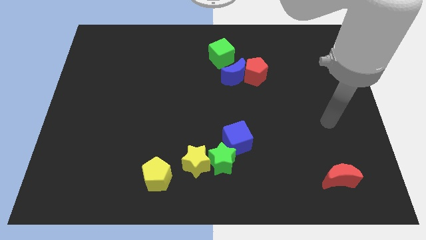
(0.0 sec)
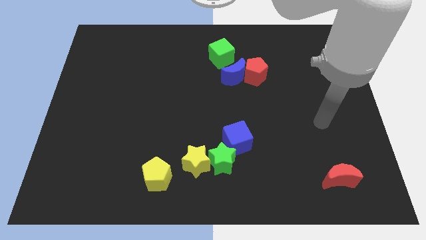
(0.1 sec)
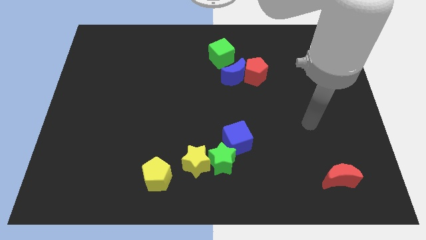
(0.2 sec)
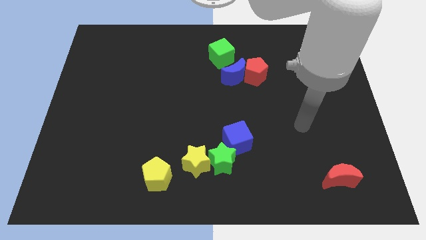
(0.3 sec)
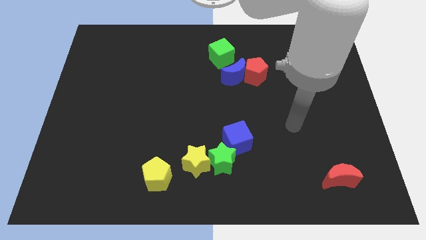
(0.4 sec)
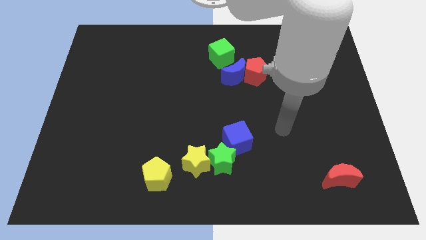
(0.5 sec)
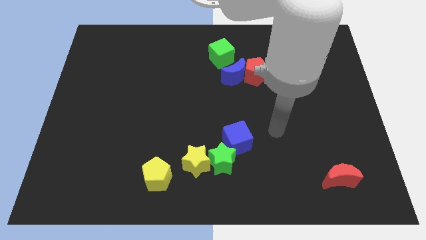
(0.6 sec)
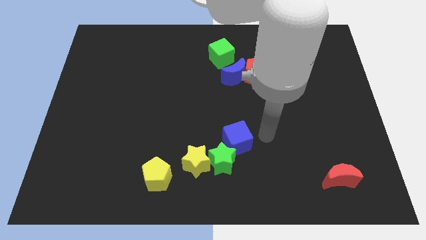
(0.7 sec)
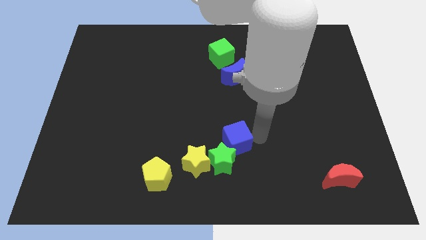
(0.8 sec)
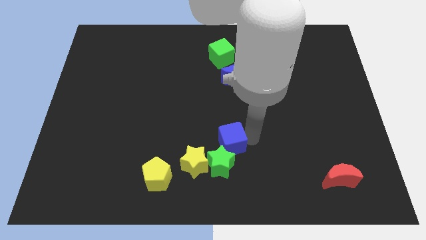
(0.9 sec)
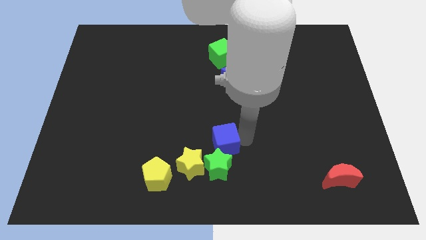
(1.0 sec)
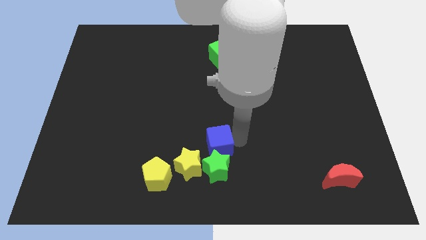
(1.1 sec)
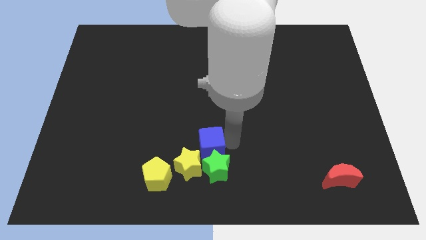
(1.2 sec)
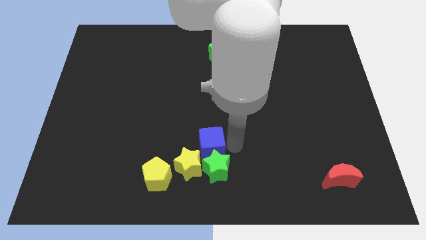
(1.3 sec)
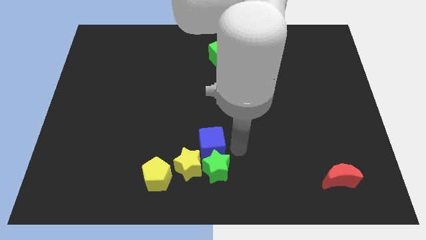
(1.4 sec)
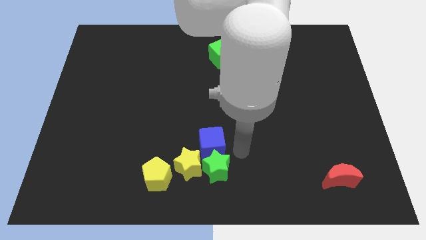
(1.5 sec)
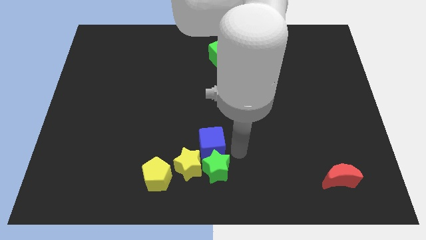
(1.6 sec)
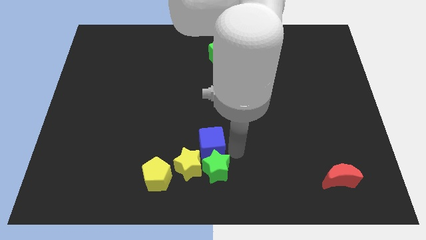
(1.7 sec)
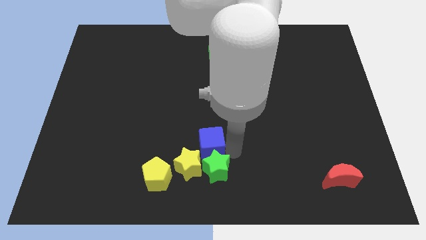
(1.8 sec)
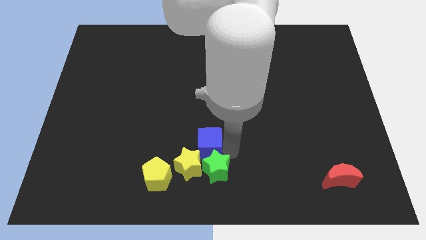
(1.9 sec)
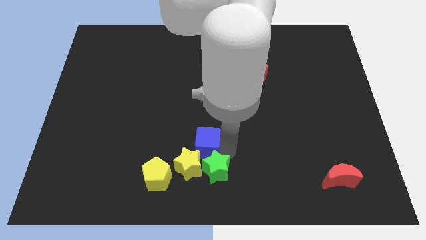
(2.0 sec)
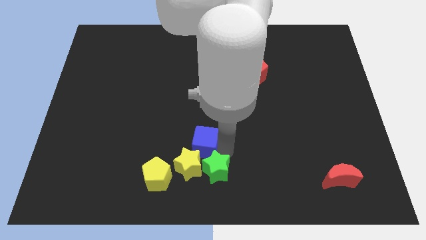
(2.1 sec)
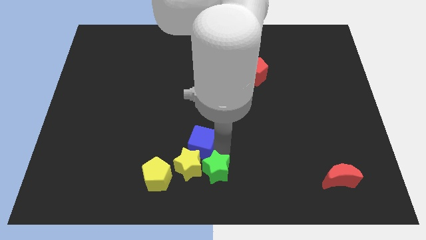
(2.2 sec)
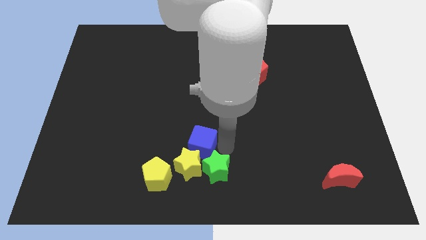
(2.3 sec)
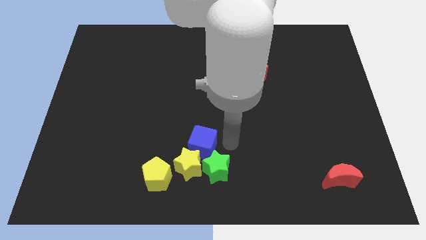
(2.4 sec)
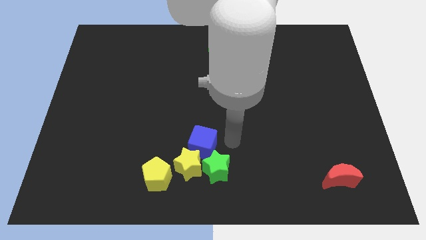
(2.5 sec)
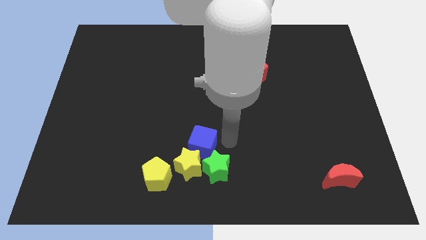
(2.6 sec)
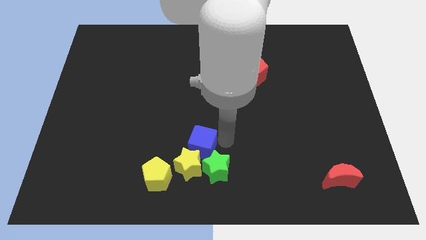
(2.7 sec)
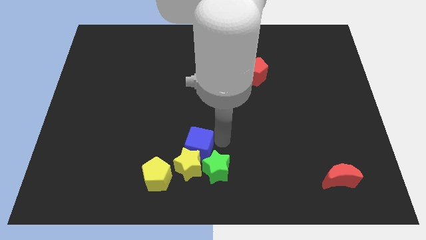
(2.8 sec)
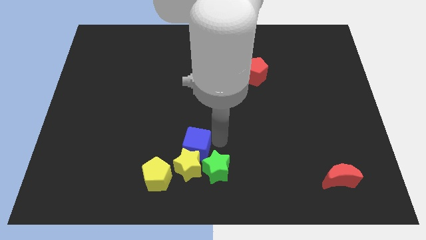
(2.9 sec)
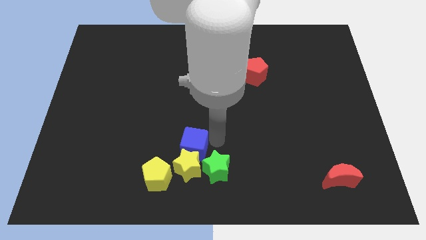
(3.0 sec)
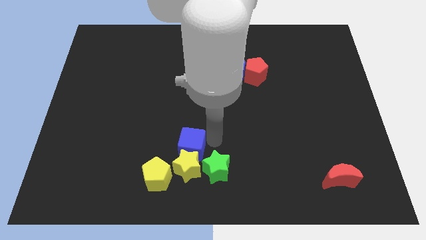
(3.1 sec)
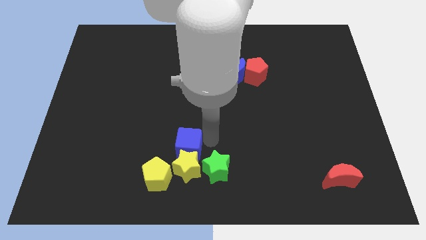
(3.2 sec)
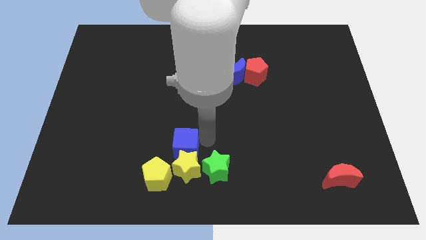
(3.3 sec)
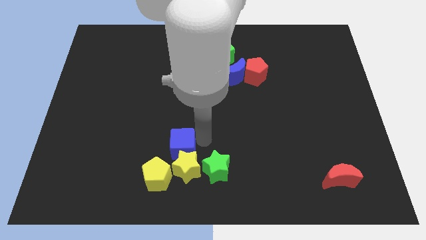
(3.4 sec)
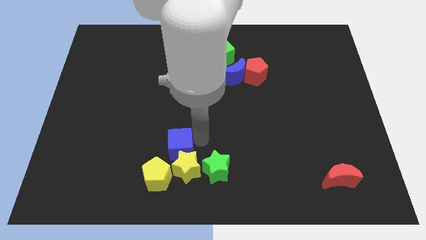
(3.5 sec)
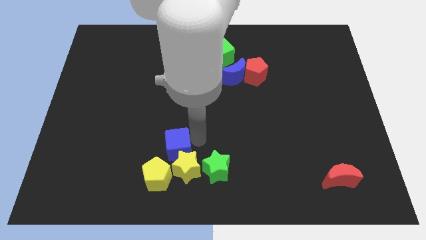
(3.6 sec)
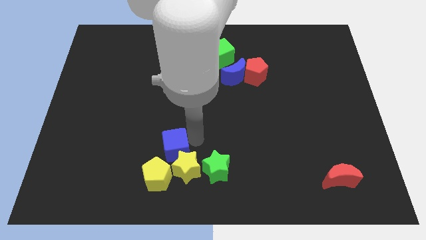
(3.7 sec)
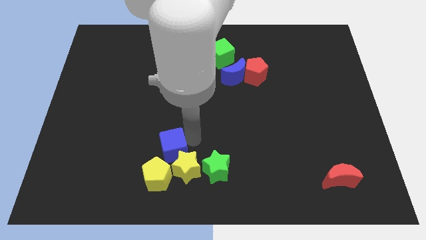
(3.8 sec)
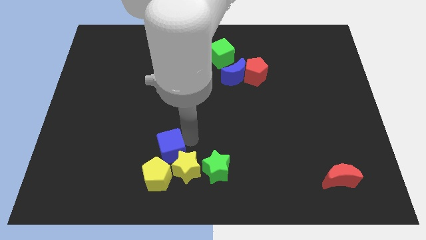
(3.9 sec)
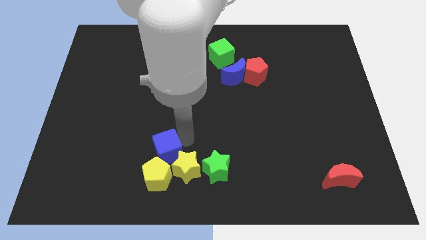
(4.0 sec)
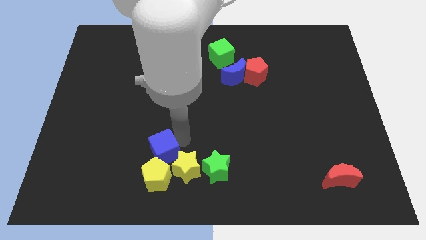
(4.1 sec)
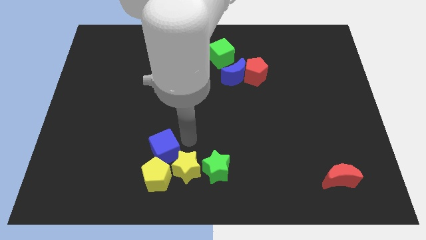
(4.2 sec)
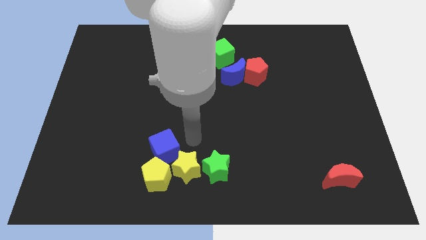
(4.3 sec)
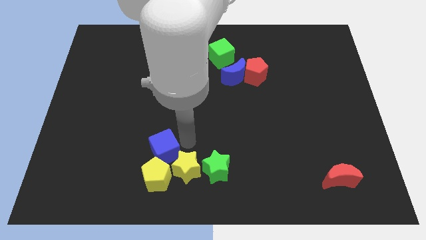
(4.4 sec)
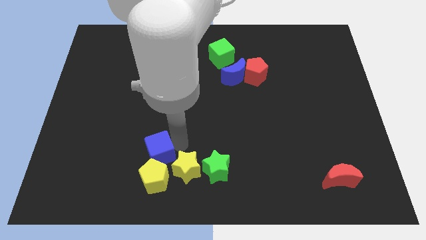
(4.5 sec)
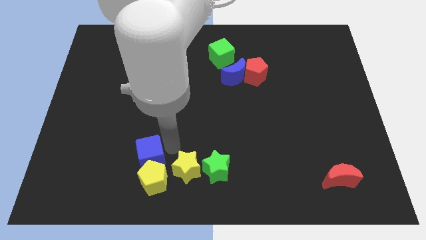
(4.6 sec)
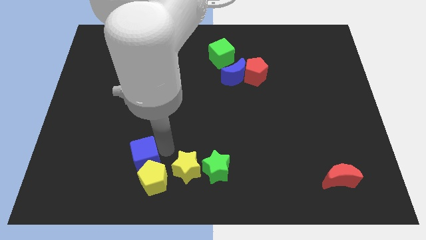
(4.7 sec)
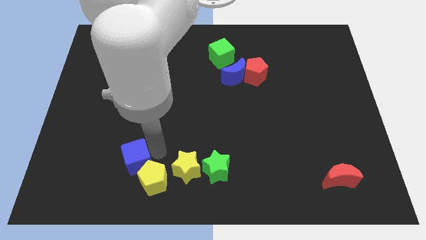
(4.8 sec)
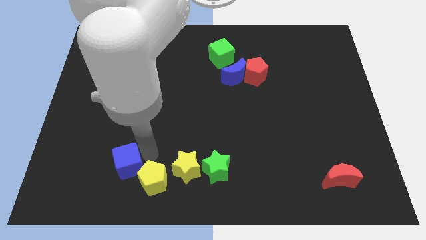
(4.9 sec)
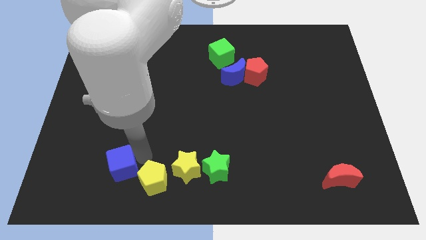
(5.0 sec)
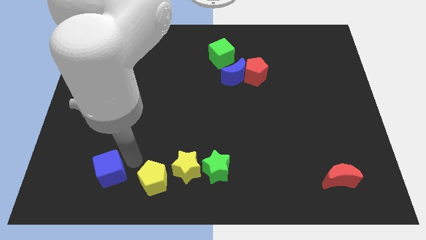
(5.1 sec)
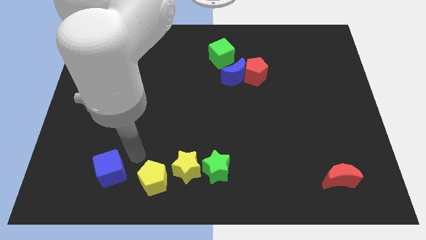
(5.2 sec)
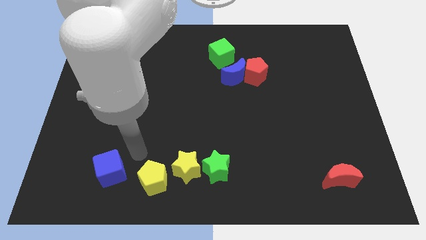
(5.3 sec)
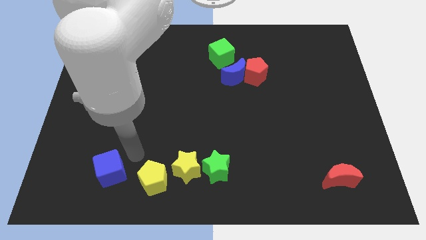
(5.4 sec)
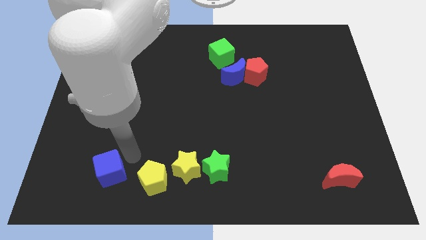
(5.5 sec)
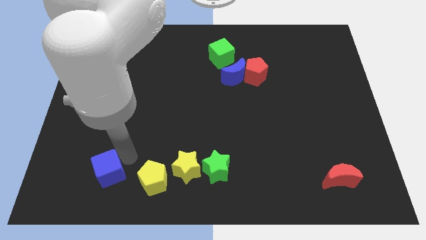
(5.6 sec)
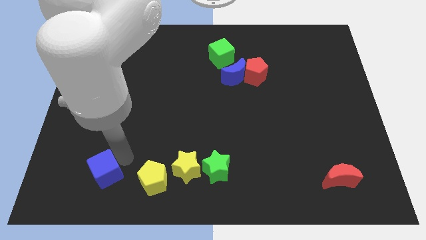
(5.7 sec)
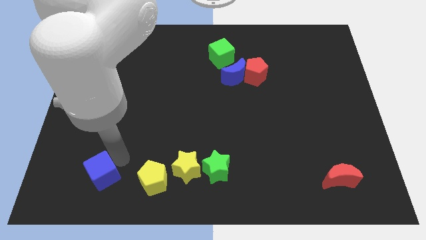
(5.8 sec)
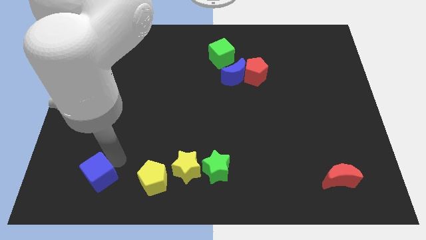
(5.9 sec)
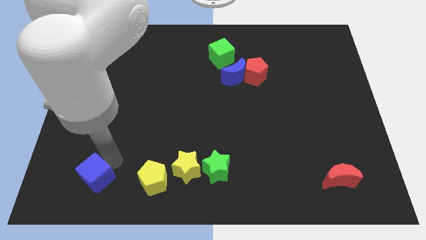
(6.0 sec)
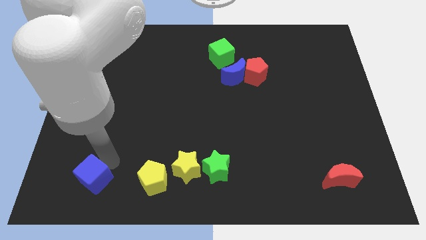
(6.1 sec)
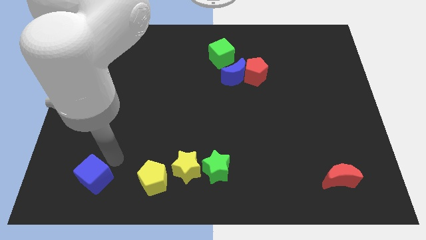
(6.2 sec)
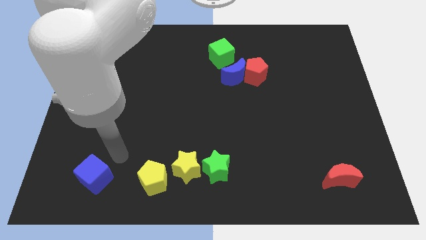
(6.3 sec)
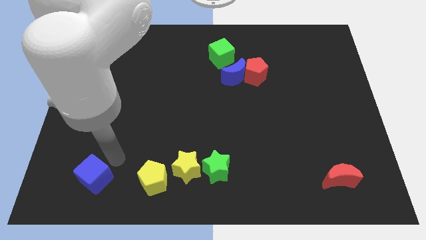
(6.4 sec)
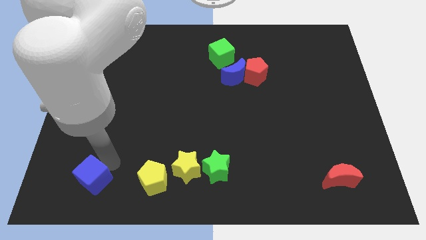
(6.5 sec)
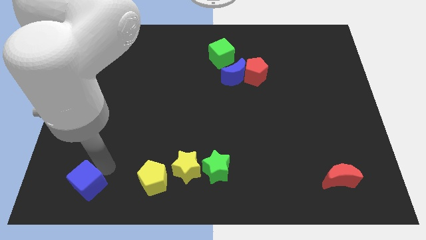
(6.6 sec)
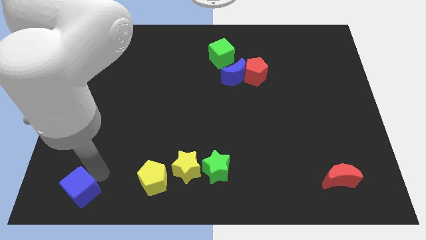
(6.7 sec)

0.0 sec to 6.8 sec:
move the blue cube to the bottom left of the board

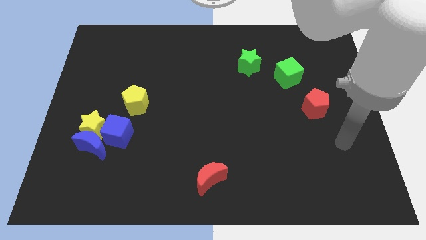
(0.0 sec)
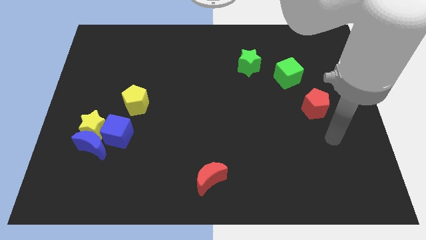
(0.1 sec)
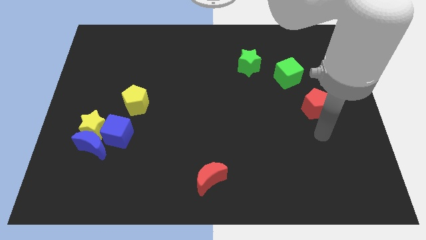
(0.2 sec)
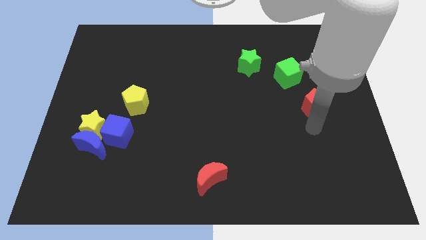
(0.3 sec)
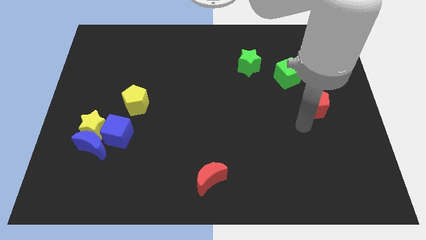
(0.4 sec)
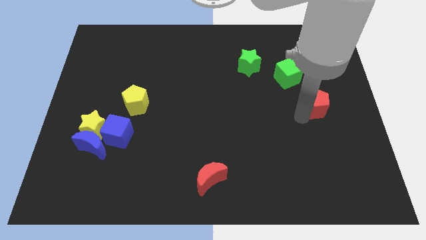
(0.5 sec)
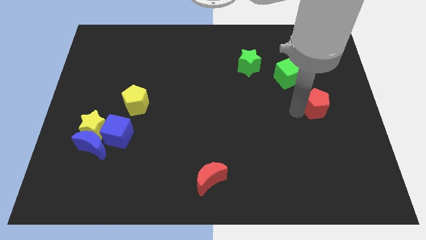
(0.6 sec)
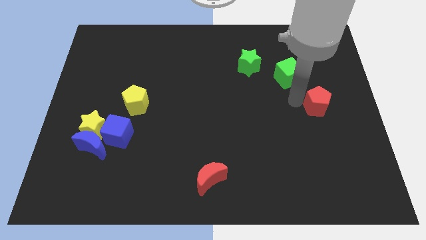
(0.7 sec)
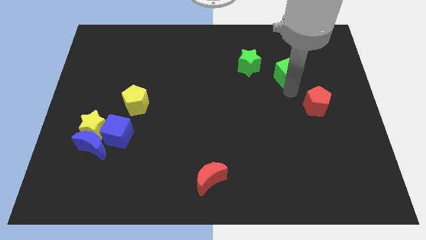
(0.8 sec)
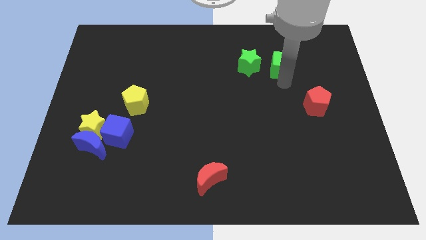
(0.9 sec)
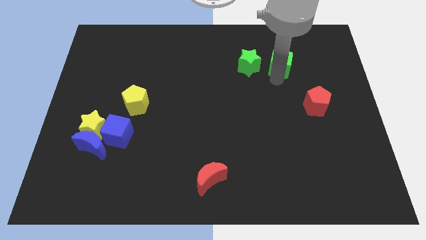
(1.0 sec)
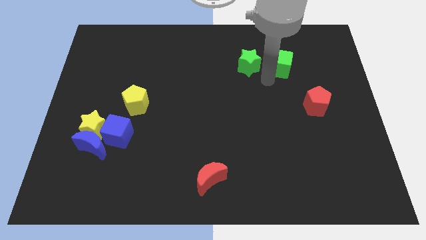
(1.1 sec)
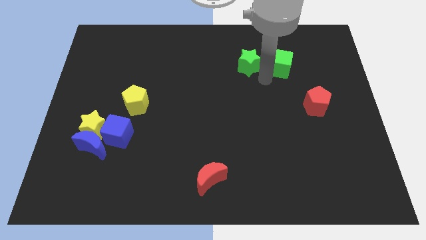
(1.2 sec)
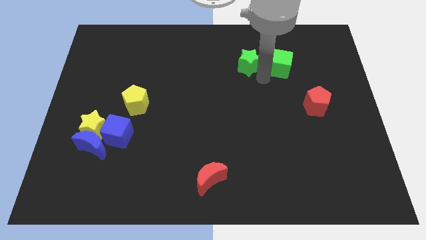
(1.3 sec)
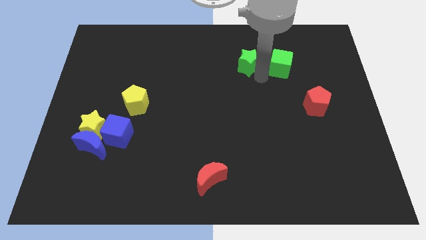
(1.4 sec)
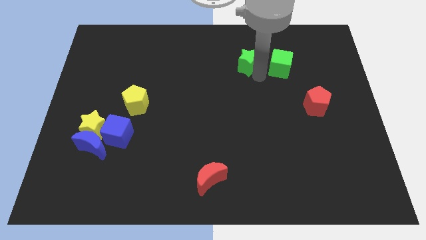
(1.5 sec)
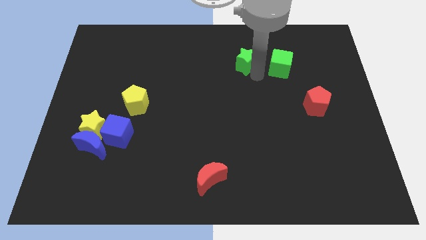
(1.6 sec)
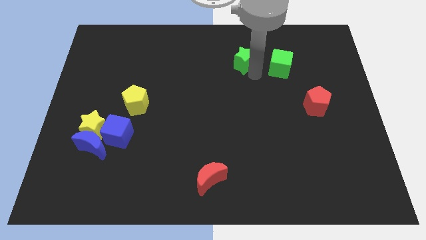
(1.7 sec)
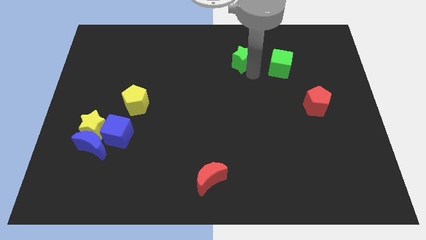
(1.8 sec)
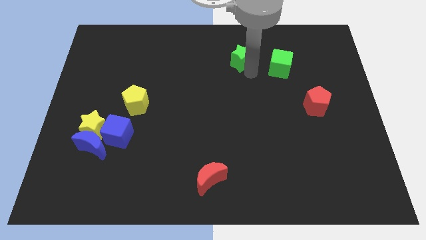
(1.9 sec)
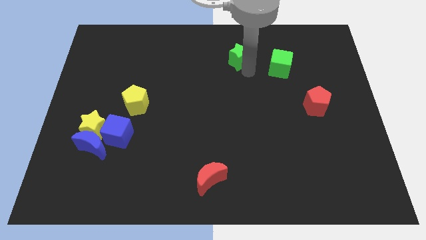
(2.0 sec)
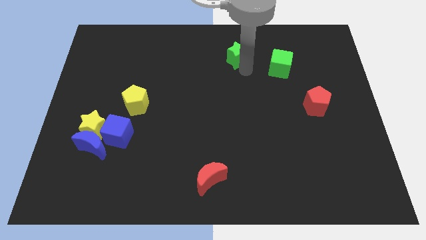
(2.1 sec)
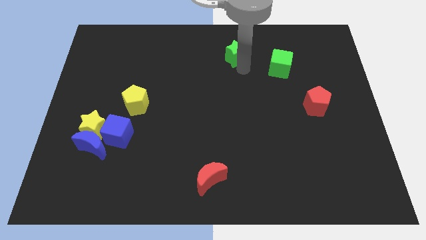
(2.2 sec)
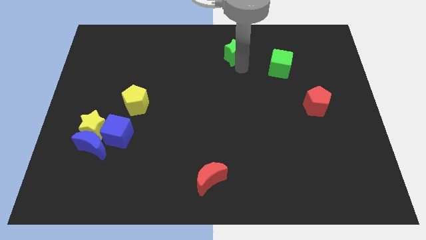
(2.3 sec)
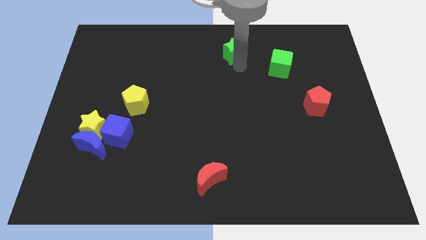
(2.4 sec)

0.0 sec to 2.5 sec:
slide the green star to the top side
